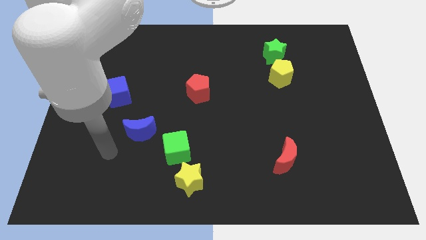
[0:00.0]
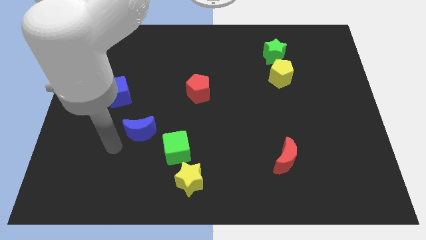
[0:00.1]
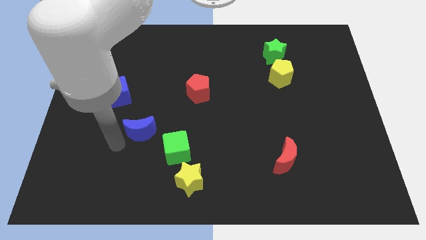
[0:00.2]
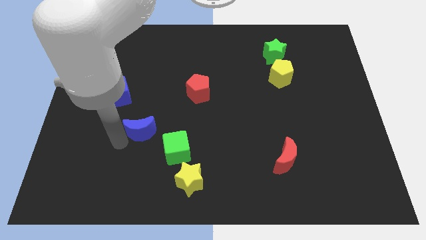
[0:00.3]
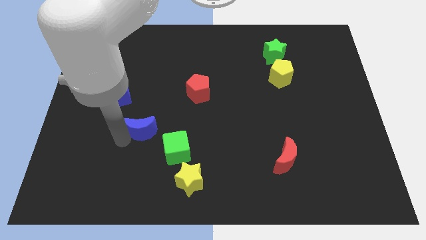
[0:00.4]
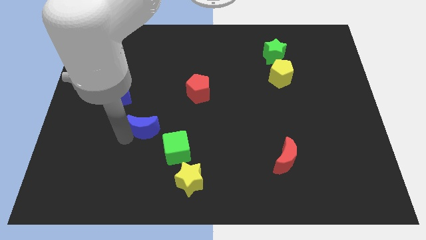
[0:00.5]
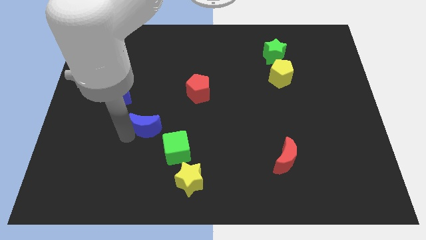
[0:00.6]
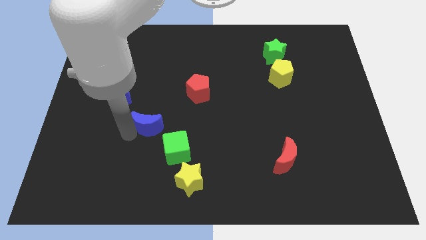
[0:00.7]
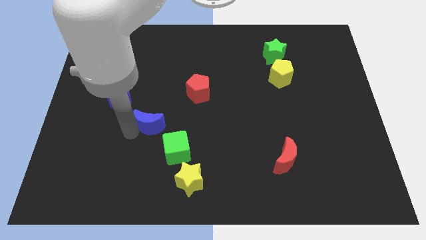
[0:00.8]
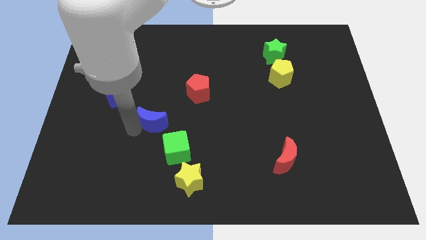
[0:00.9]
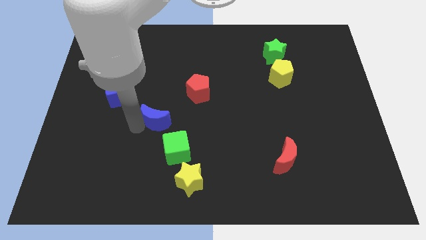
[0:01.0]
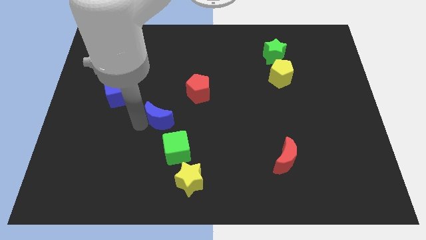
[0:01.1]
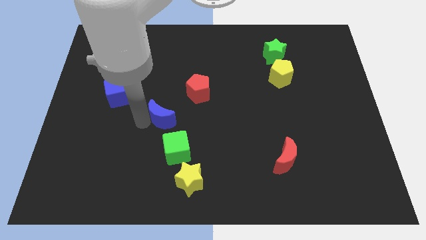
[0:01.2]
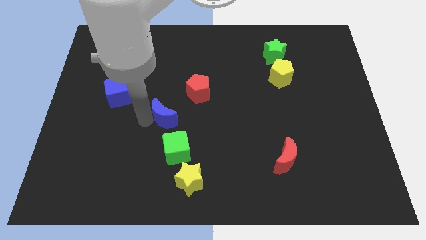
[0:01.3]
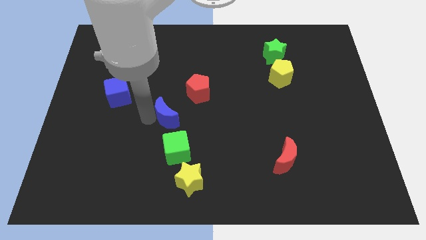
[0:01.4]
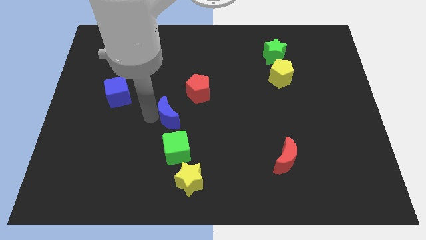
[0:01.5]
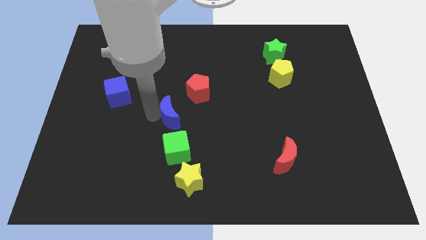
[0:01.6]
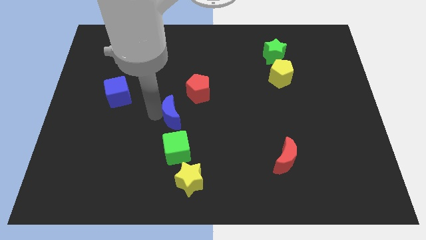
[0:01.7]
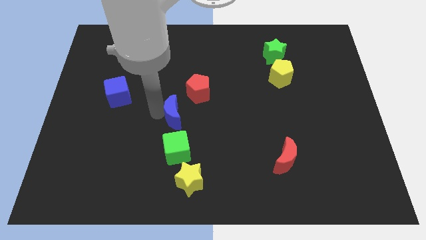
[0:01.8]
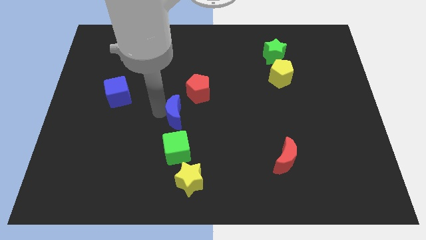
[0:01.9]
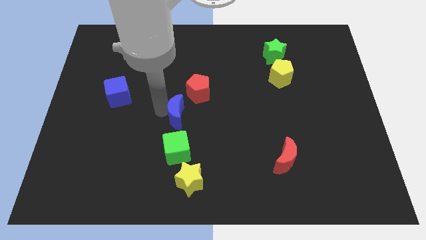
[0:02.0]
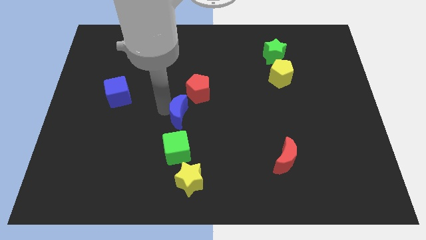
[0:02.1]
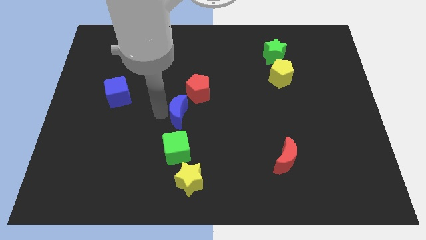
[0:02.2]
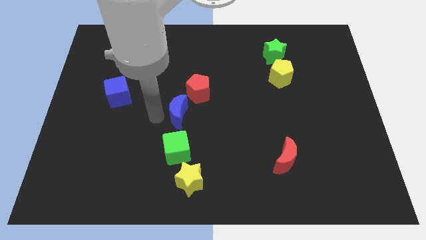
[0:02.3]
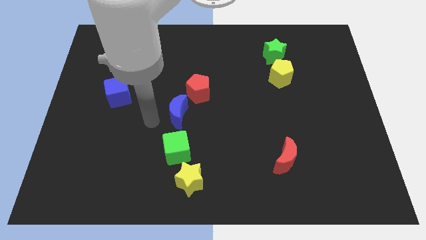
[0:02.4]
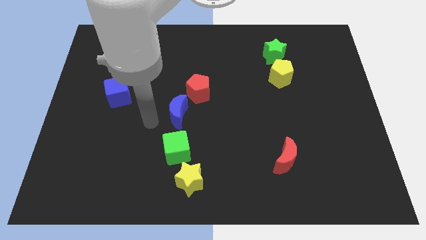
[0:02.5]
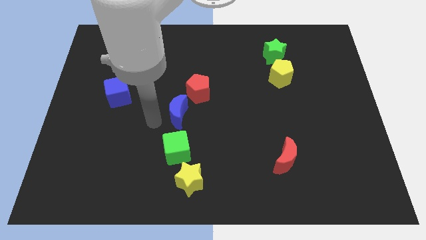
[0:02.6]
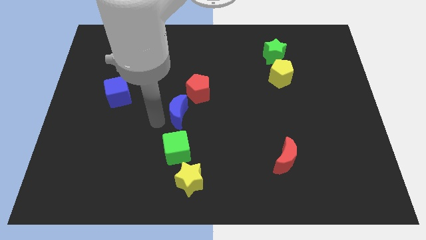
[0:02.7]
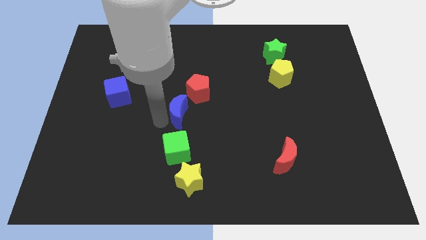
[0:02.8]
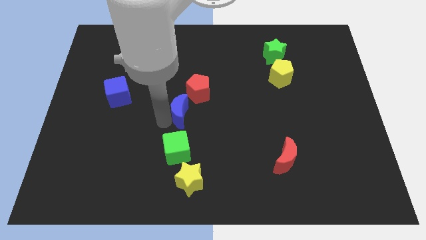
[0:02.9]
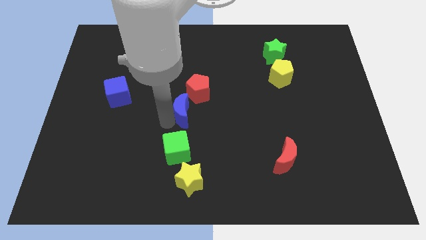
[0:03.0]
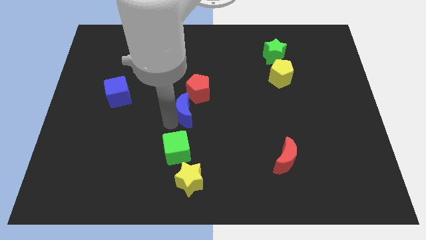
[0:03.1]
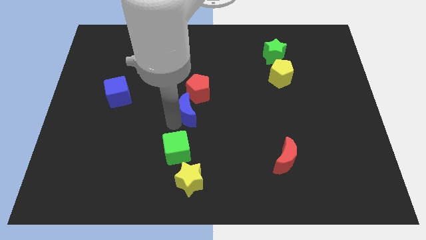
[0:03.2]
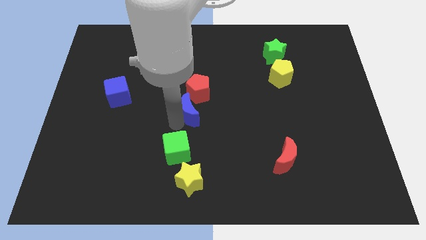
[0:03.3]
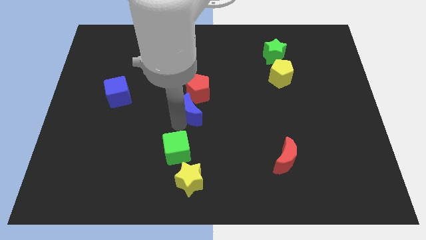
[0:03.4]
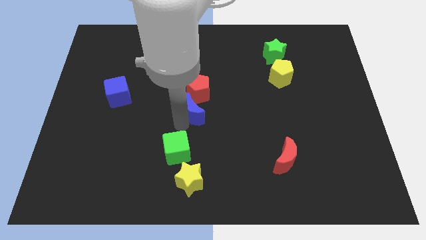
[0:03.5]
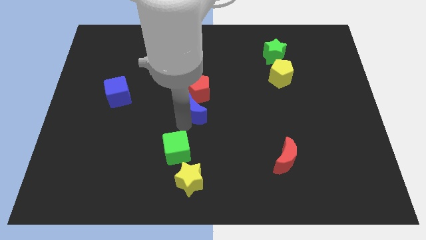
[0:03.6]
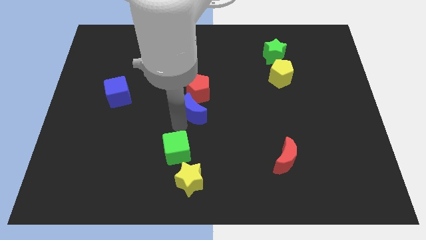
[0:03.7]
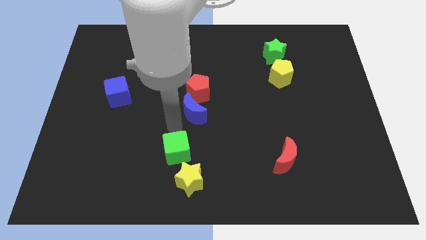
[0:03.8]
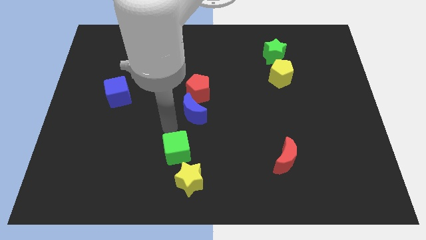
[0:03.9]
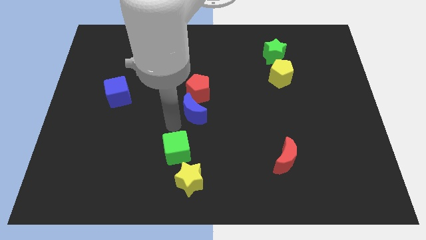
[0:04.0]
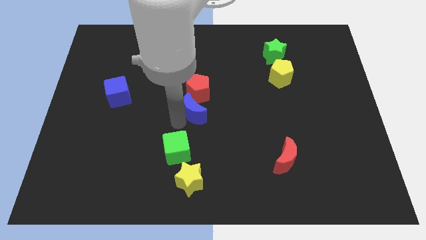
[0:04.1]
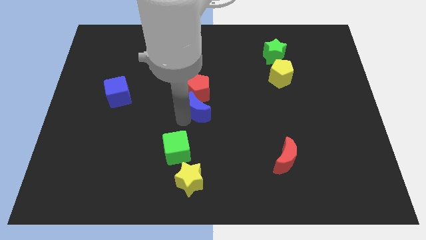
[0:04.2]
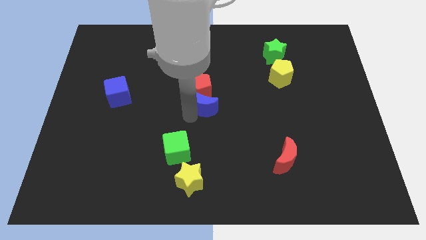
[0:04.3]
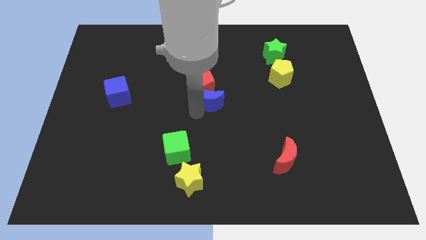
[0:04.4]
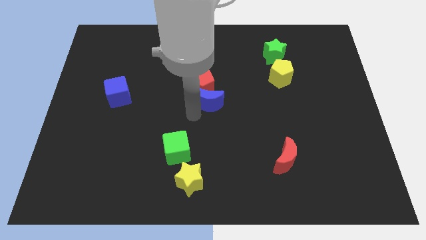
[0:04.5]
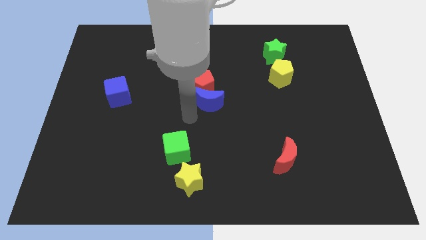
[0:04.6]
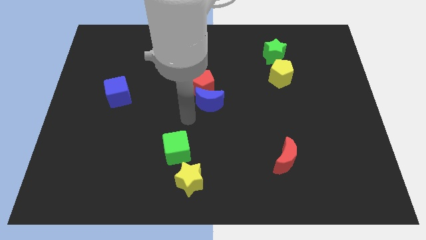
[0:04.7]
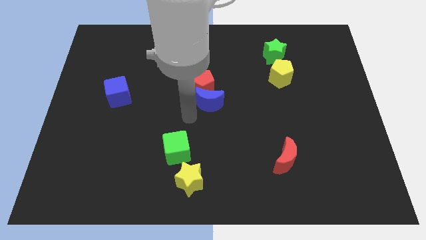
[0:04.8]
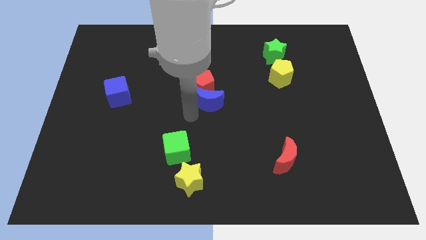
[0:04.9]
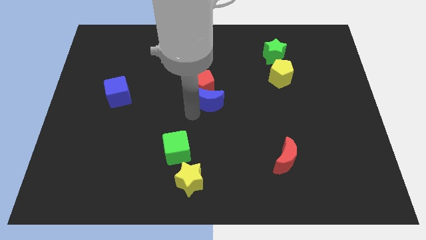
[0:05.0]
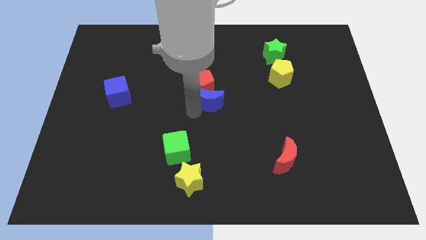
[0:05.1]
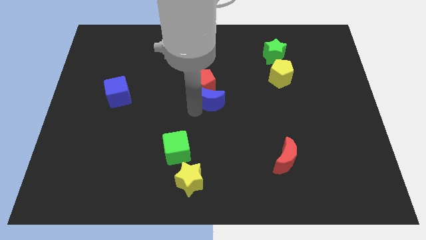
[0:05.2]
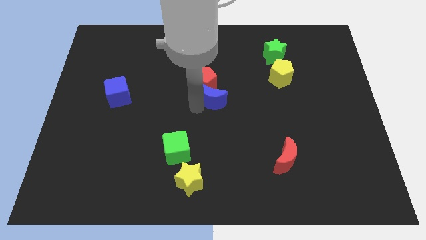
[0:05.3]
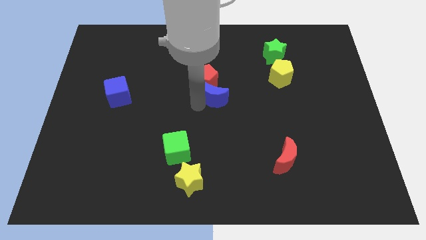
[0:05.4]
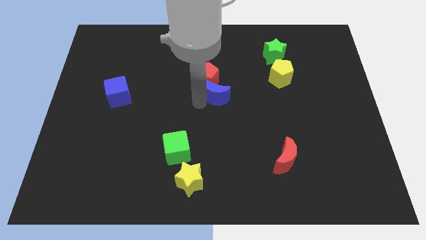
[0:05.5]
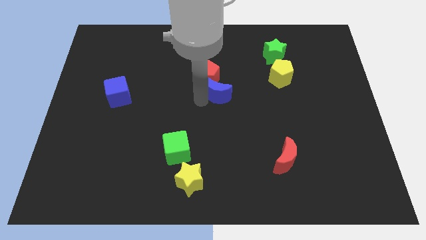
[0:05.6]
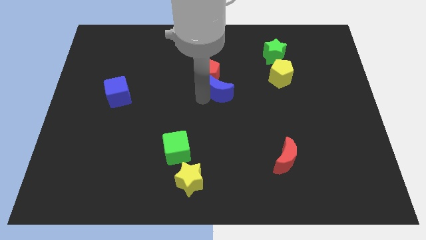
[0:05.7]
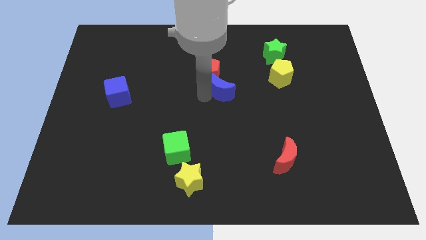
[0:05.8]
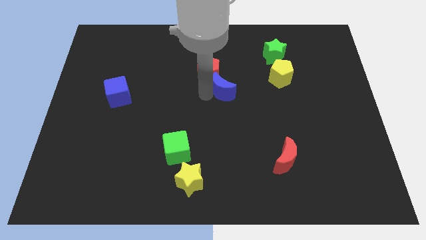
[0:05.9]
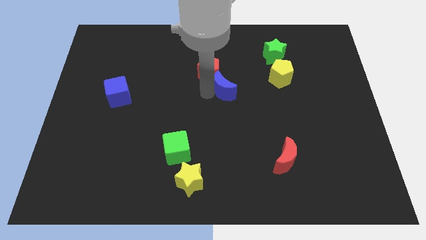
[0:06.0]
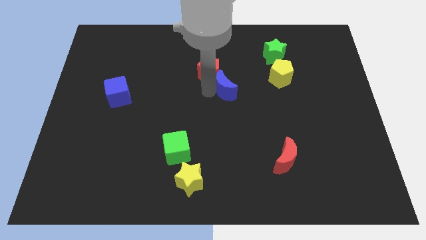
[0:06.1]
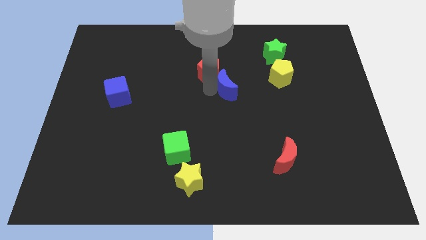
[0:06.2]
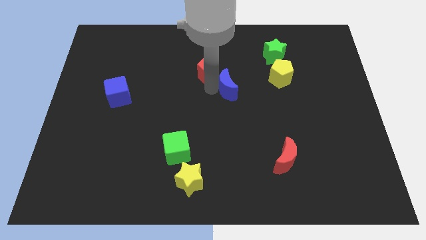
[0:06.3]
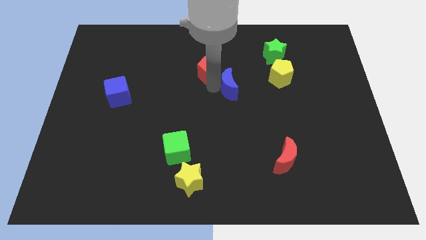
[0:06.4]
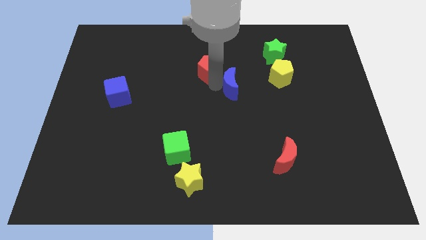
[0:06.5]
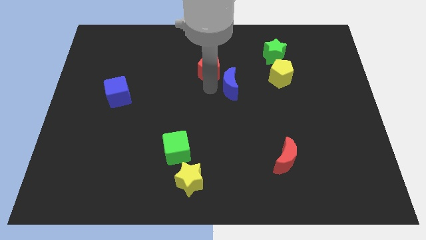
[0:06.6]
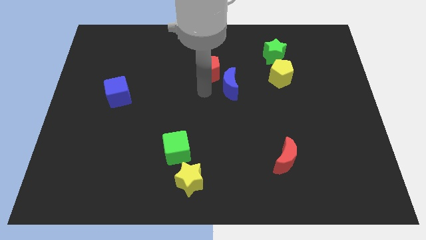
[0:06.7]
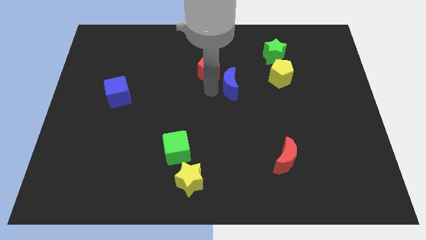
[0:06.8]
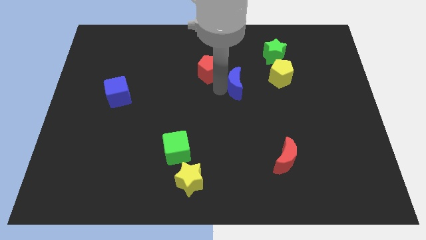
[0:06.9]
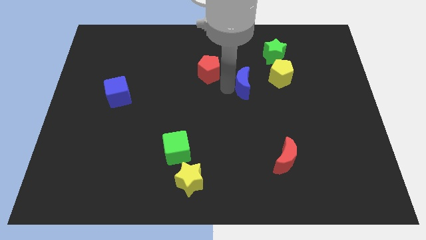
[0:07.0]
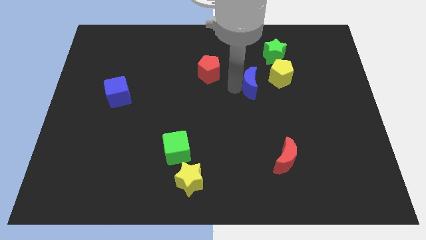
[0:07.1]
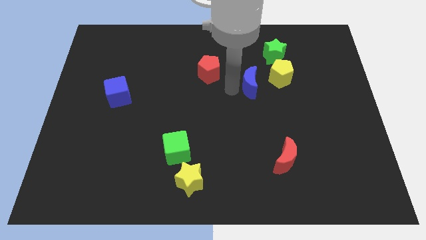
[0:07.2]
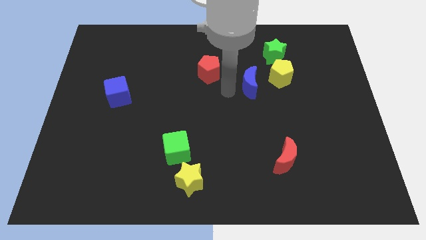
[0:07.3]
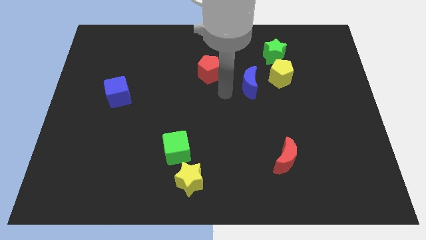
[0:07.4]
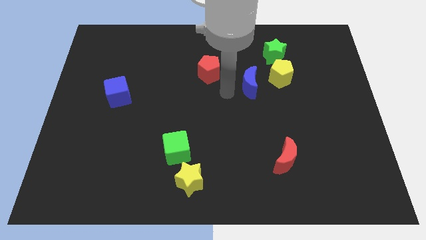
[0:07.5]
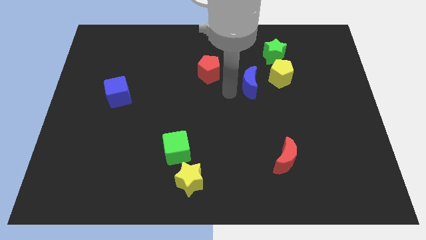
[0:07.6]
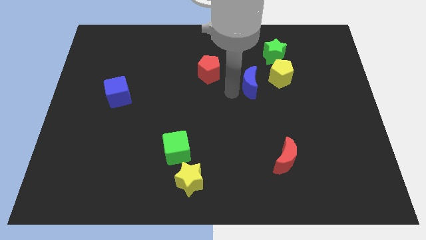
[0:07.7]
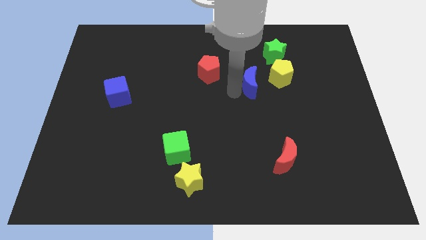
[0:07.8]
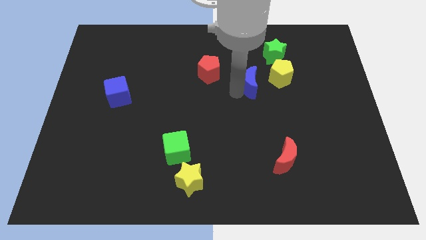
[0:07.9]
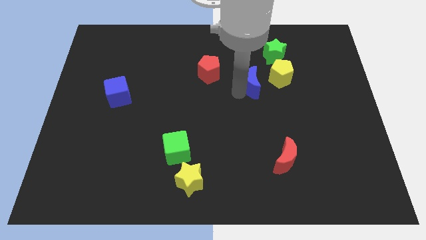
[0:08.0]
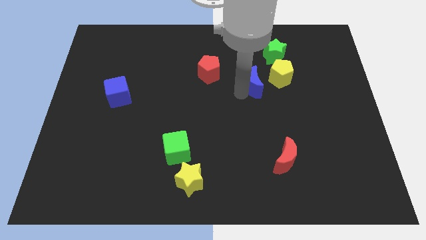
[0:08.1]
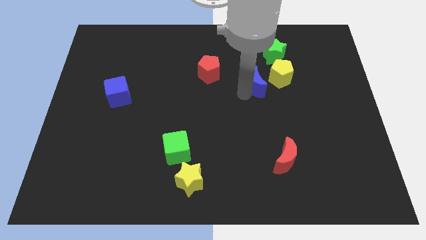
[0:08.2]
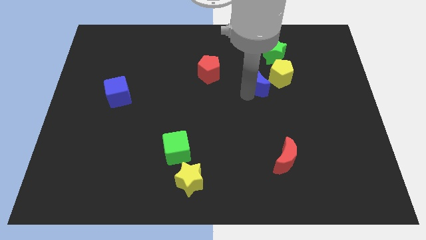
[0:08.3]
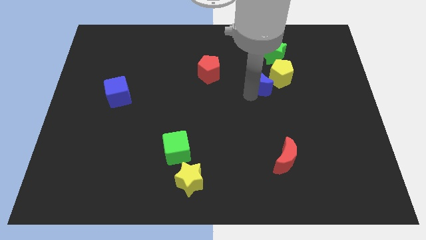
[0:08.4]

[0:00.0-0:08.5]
slide the blue moon to the yellow pentagon
